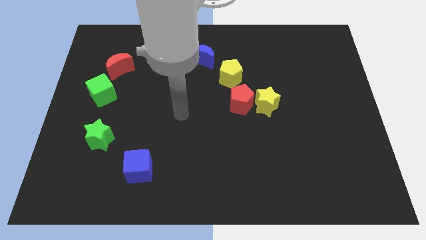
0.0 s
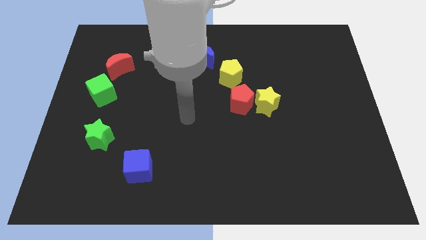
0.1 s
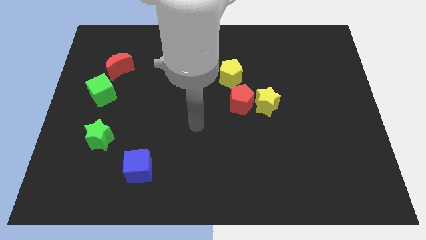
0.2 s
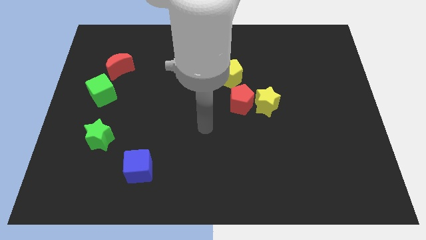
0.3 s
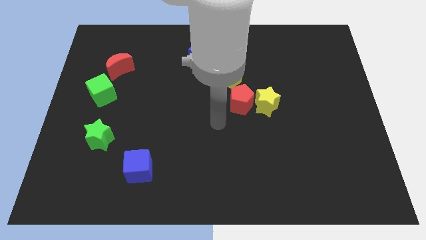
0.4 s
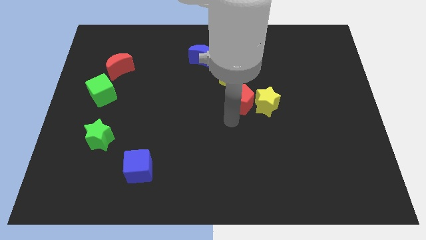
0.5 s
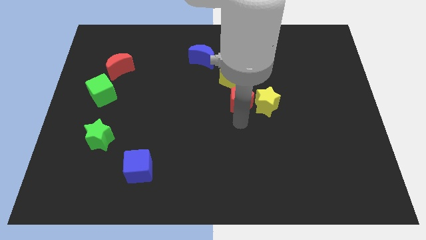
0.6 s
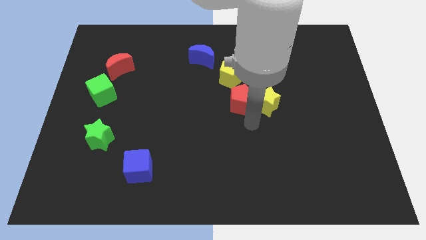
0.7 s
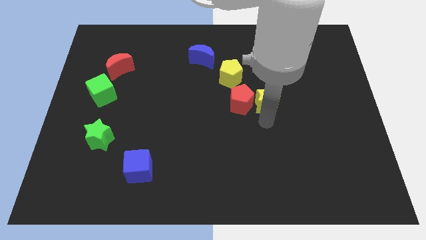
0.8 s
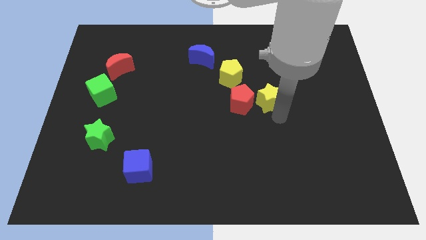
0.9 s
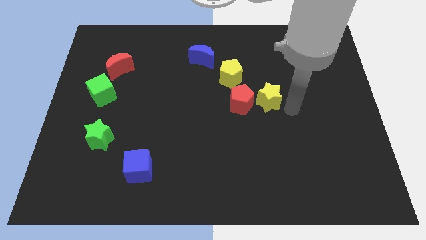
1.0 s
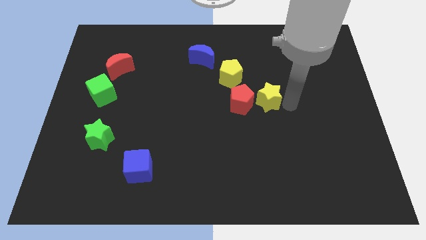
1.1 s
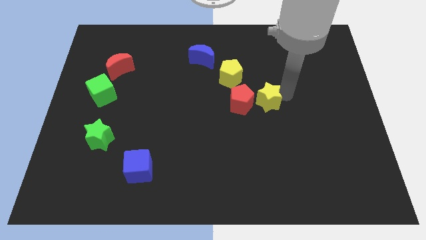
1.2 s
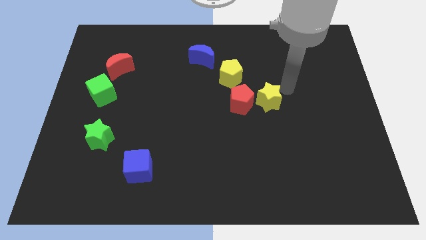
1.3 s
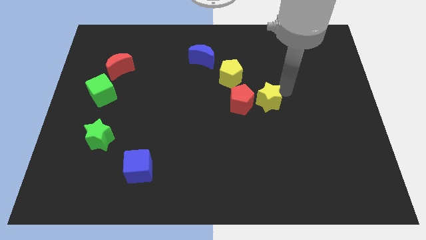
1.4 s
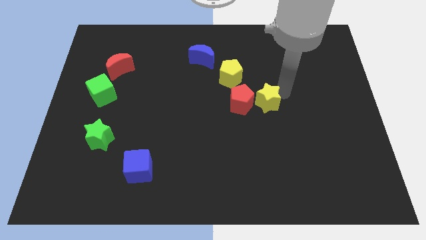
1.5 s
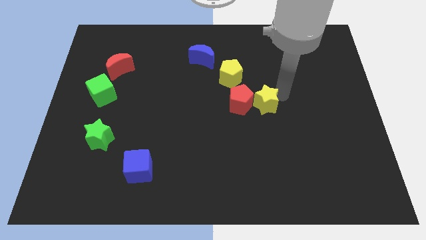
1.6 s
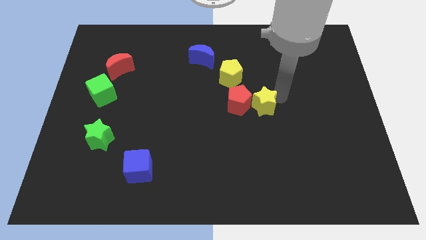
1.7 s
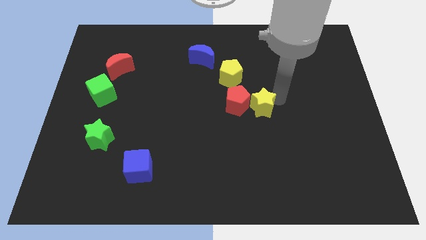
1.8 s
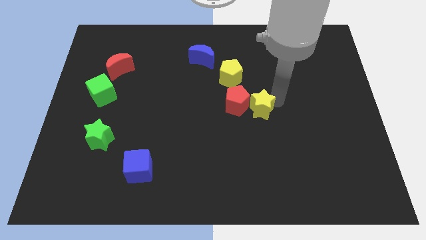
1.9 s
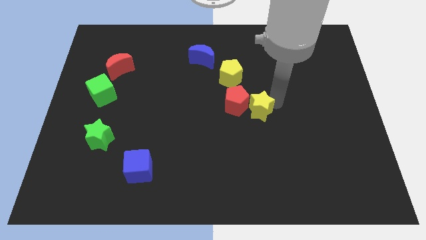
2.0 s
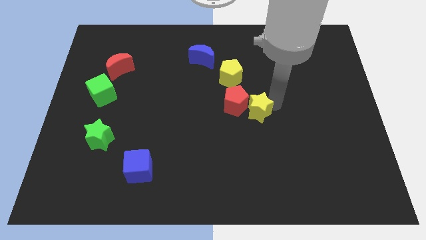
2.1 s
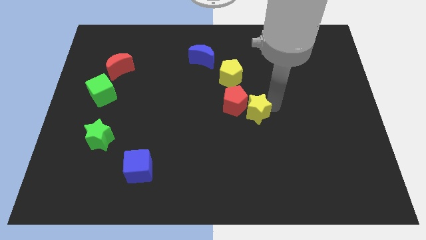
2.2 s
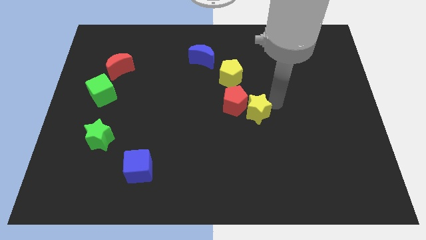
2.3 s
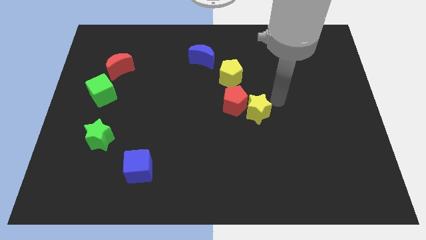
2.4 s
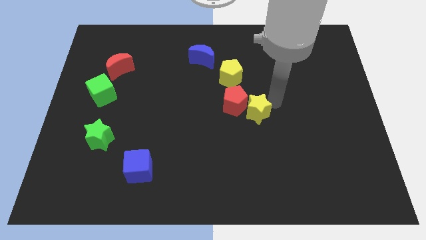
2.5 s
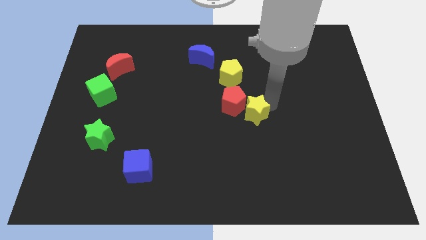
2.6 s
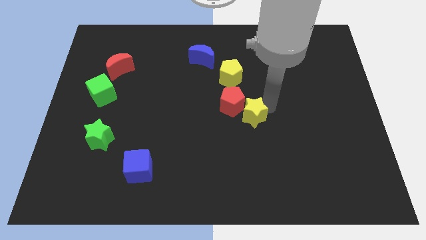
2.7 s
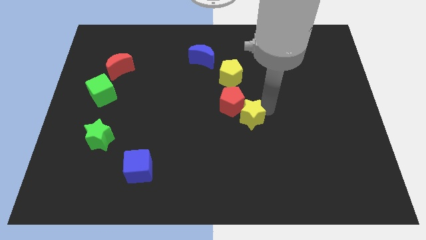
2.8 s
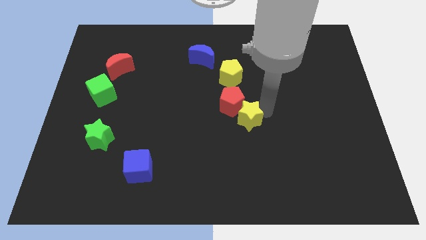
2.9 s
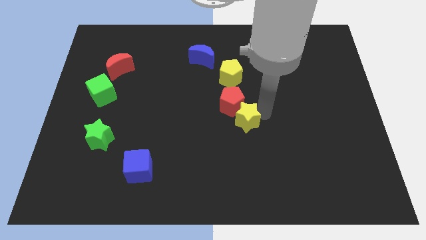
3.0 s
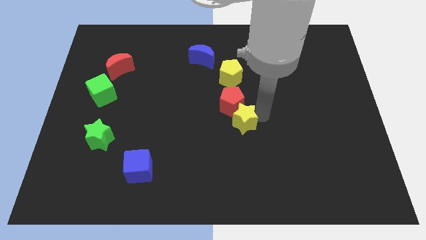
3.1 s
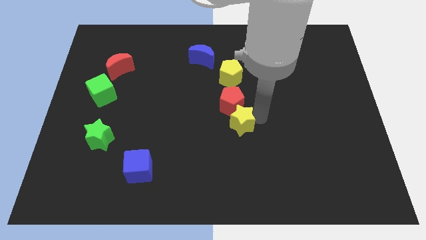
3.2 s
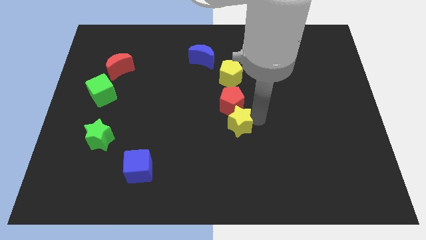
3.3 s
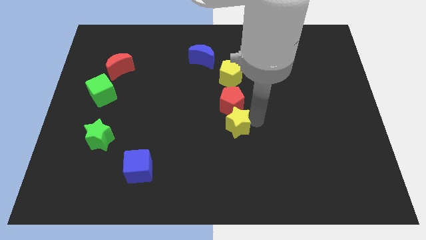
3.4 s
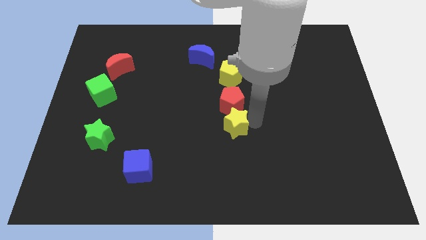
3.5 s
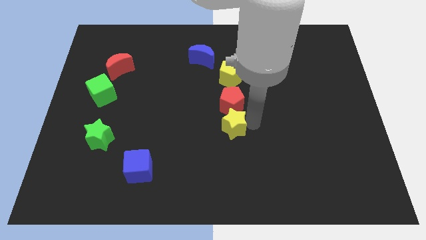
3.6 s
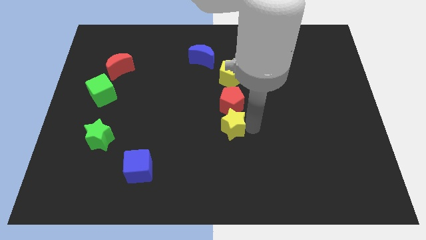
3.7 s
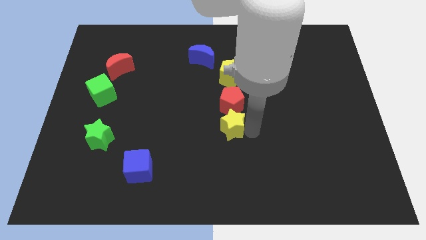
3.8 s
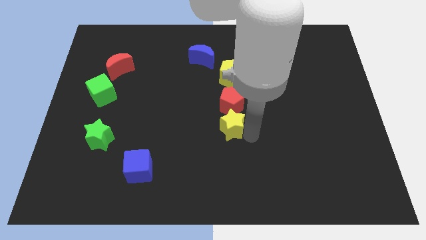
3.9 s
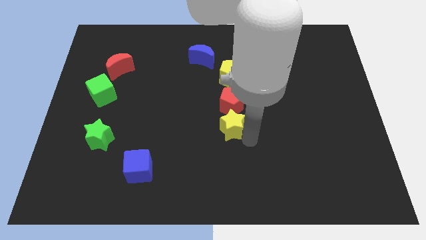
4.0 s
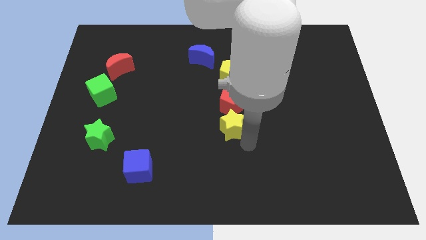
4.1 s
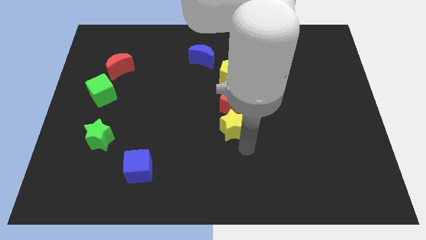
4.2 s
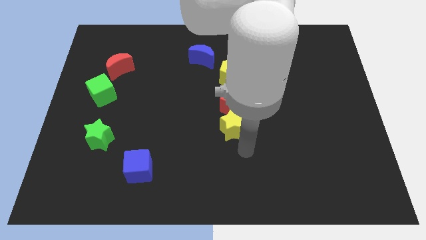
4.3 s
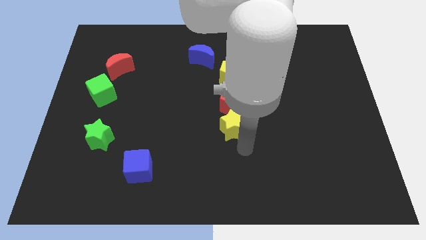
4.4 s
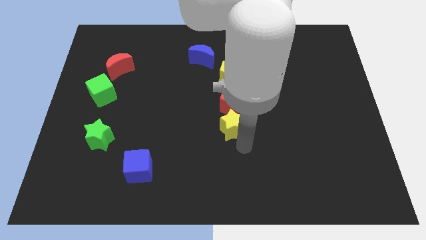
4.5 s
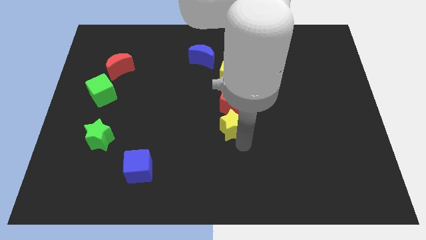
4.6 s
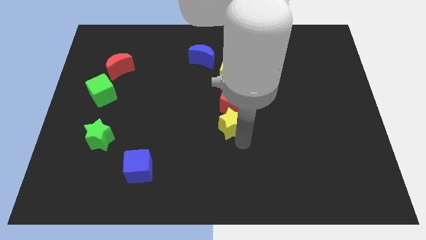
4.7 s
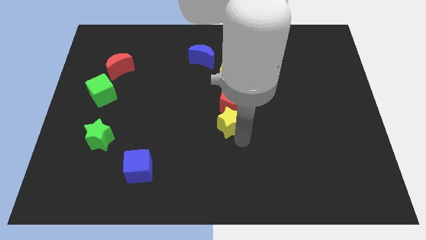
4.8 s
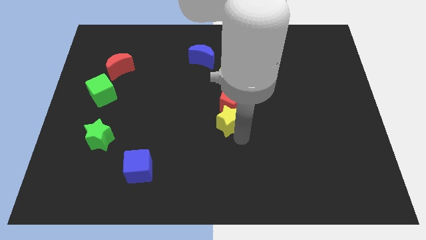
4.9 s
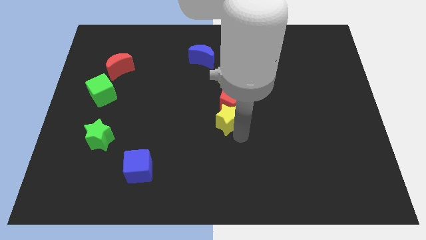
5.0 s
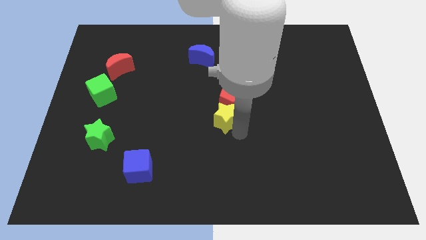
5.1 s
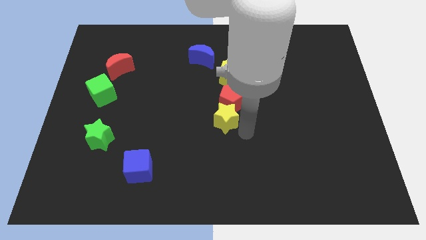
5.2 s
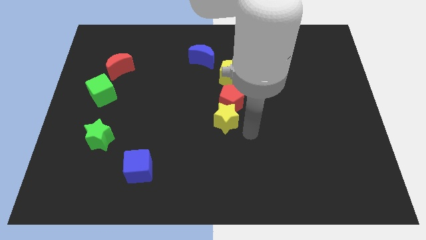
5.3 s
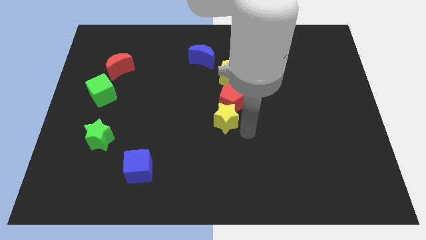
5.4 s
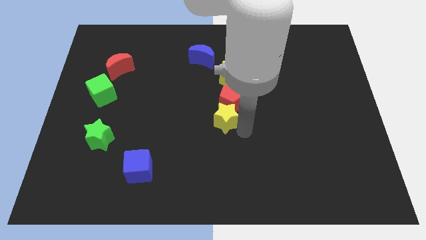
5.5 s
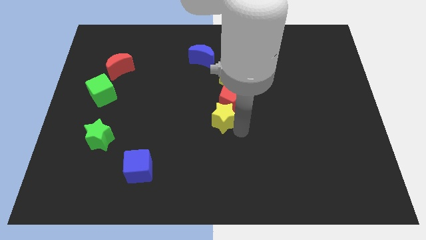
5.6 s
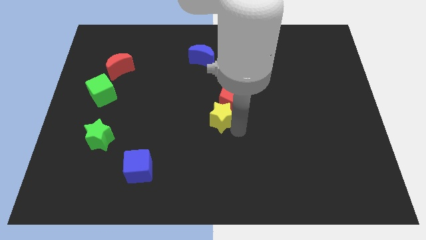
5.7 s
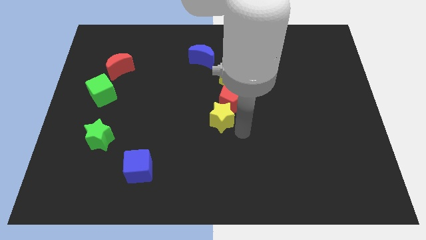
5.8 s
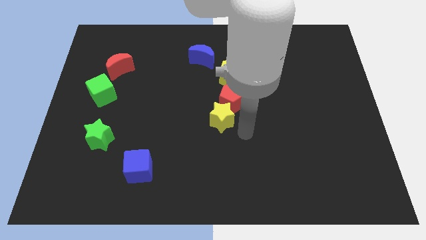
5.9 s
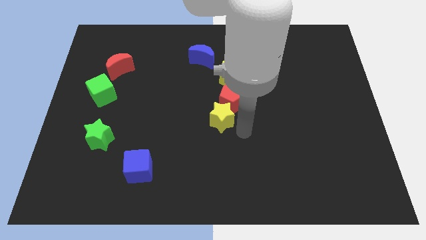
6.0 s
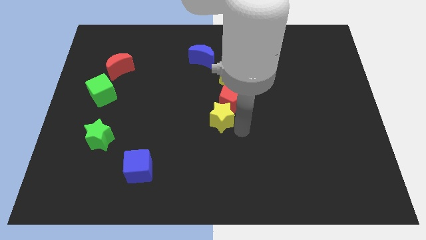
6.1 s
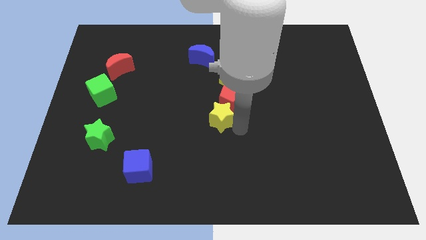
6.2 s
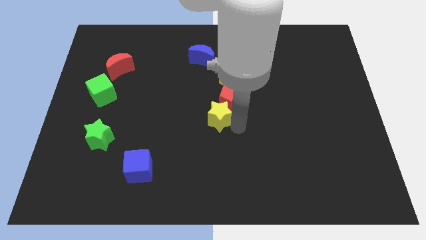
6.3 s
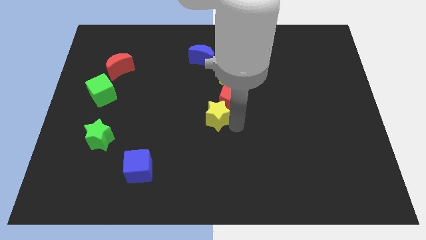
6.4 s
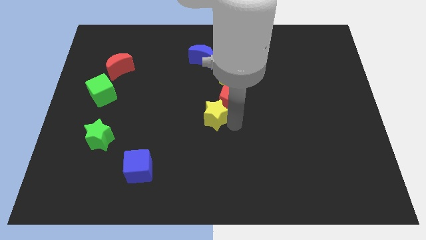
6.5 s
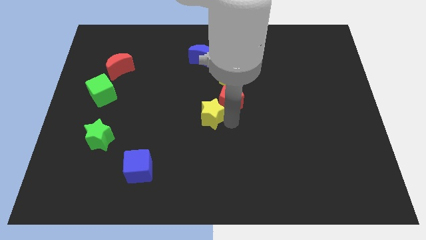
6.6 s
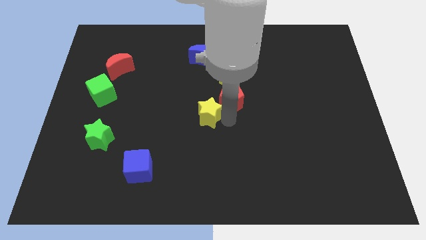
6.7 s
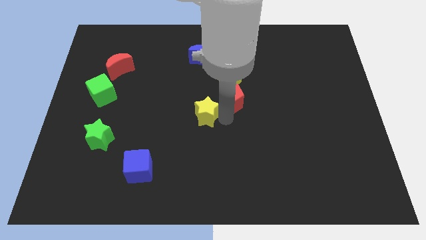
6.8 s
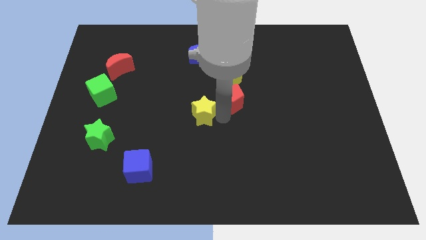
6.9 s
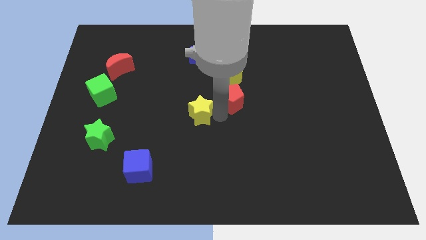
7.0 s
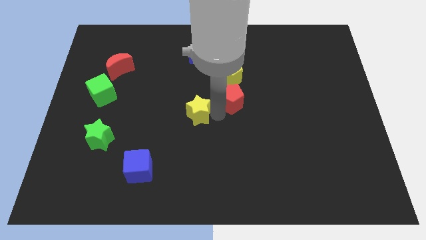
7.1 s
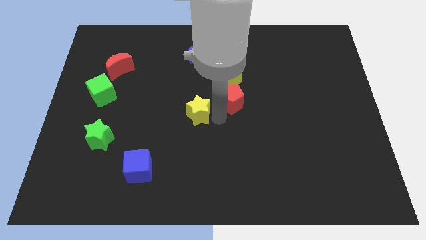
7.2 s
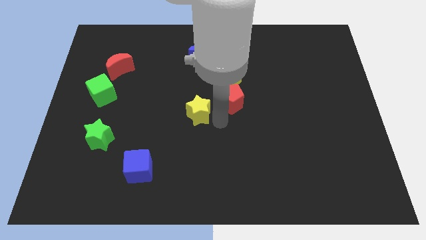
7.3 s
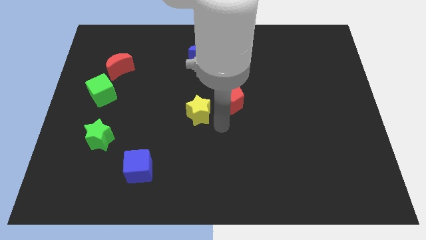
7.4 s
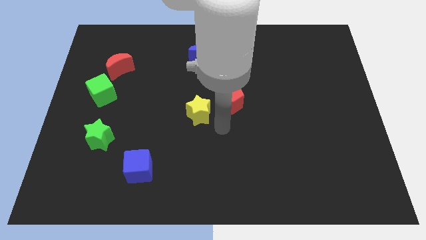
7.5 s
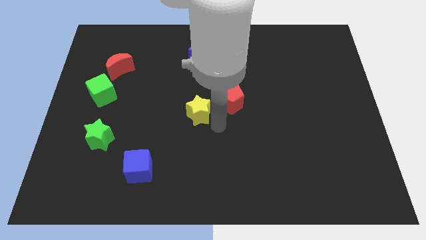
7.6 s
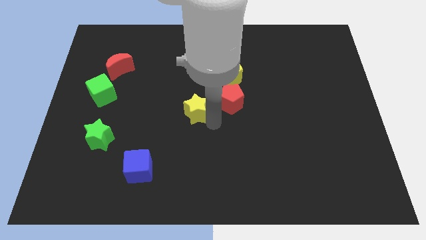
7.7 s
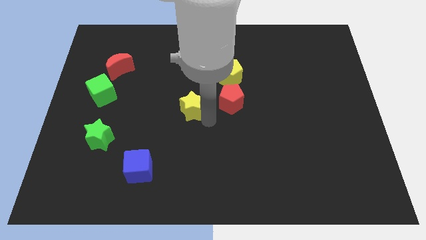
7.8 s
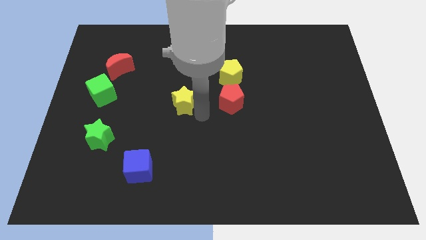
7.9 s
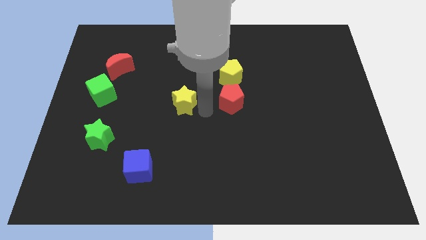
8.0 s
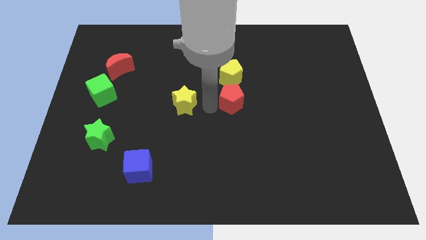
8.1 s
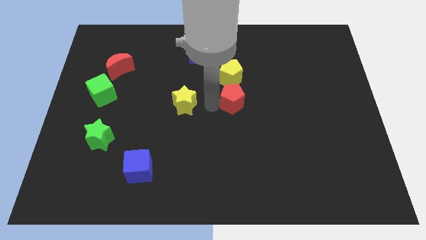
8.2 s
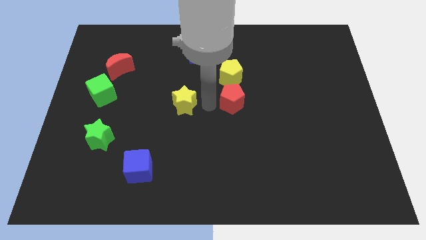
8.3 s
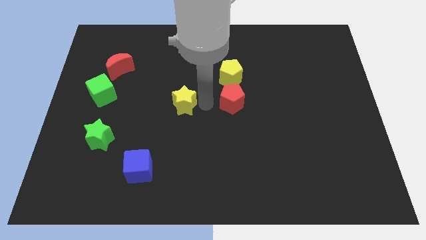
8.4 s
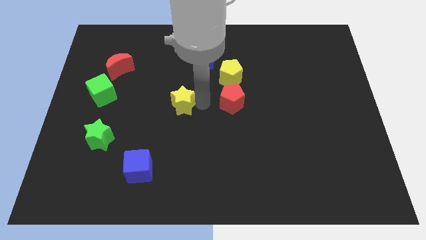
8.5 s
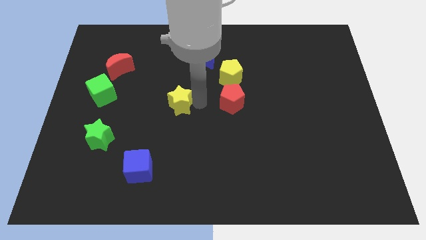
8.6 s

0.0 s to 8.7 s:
push the yellow star to the left
